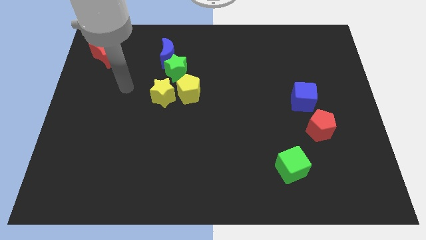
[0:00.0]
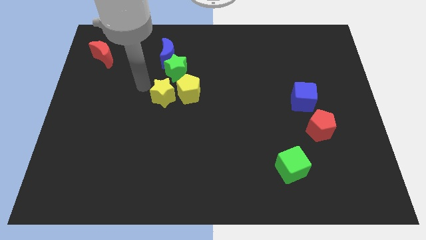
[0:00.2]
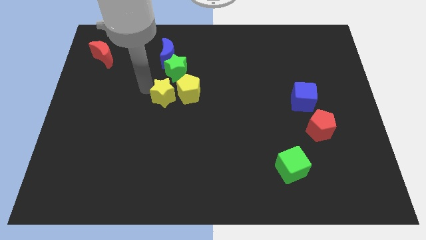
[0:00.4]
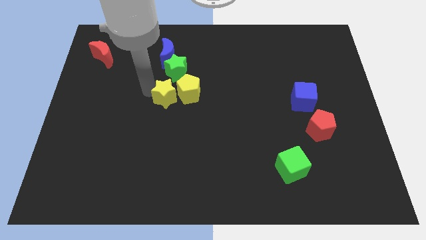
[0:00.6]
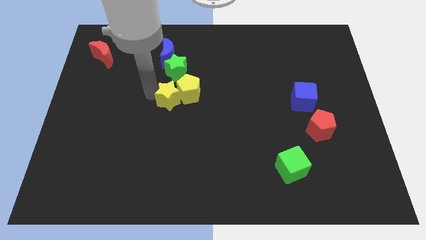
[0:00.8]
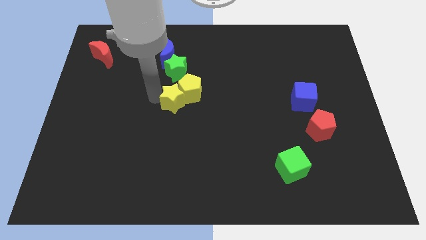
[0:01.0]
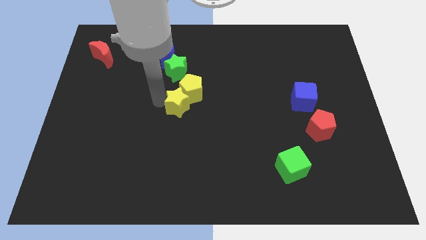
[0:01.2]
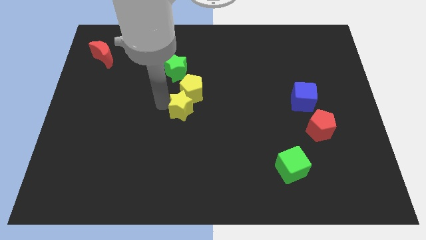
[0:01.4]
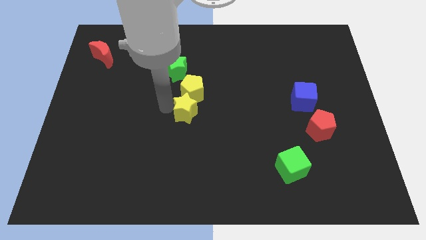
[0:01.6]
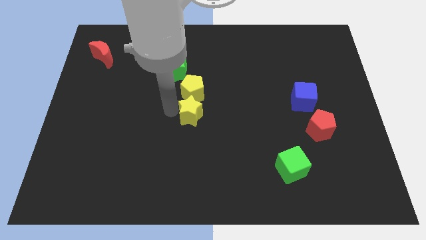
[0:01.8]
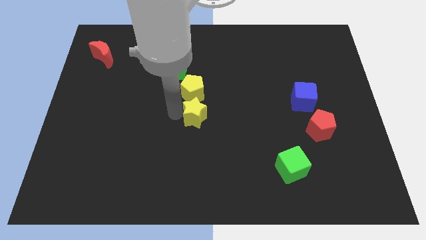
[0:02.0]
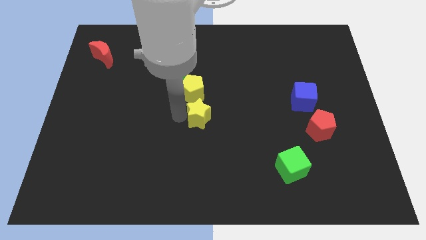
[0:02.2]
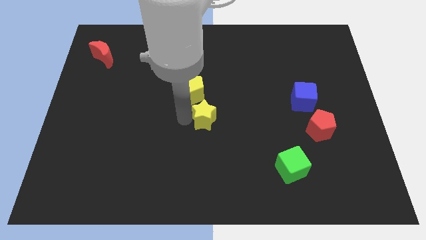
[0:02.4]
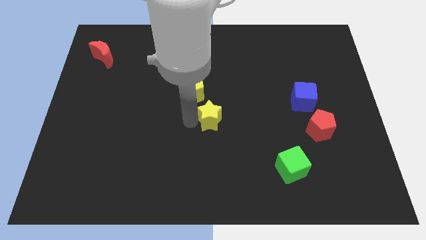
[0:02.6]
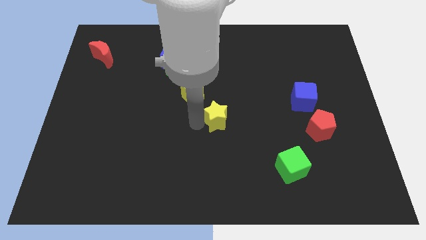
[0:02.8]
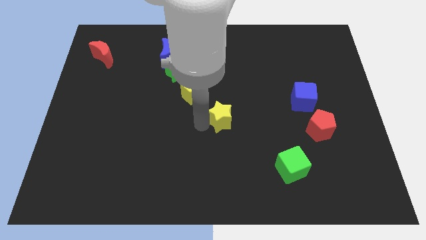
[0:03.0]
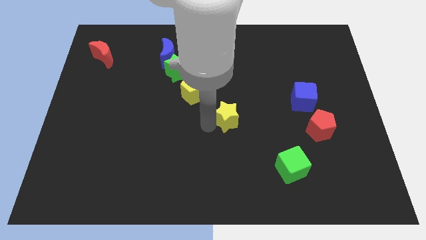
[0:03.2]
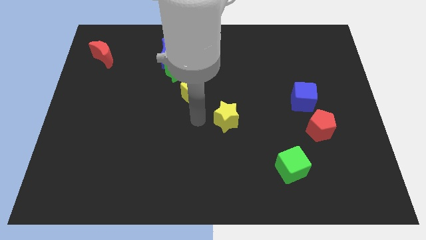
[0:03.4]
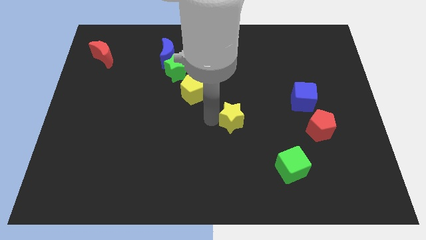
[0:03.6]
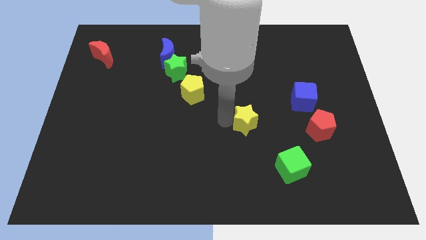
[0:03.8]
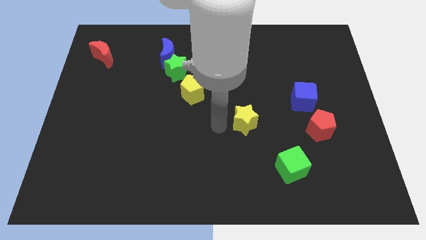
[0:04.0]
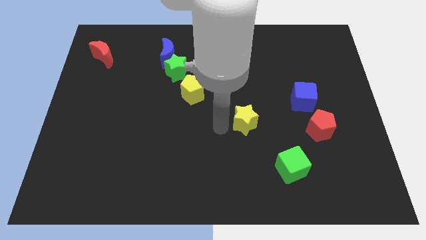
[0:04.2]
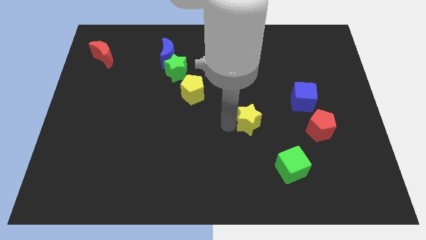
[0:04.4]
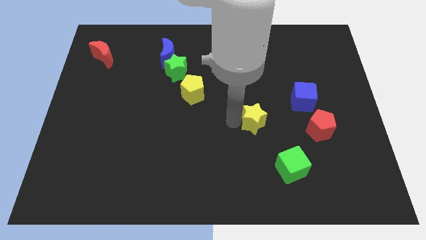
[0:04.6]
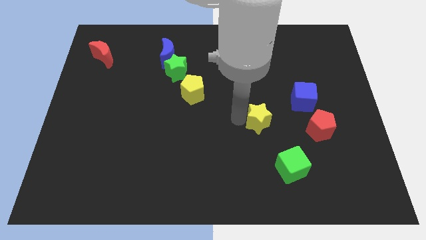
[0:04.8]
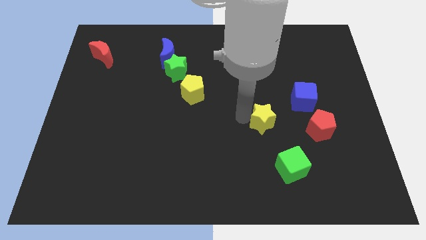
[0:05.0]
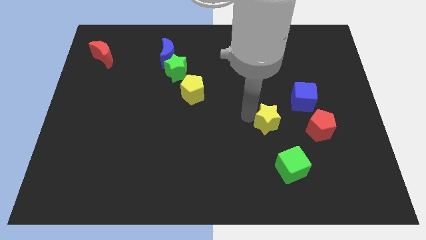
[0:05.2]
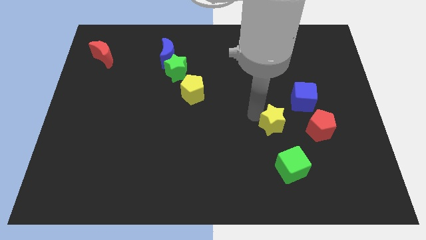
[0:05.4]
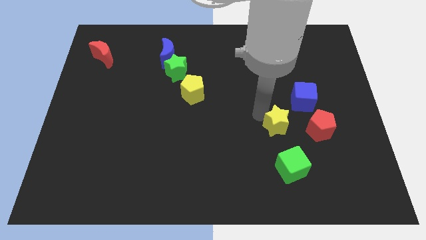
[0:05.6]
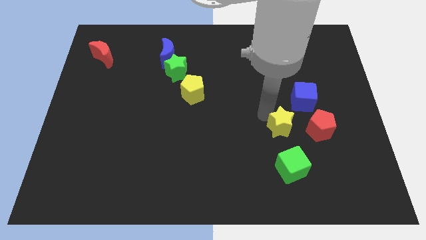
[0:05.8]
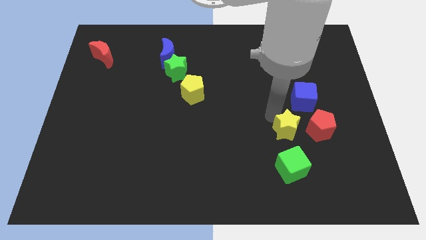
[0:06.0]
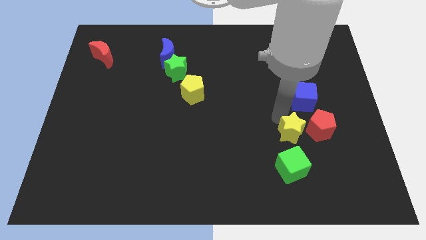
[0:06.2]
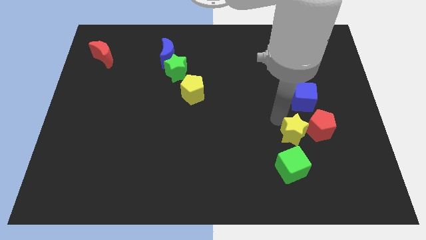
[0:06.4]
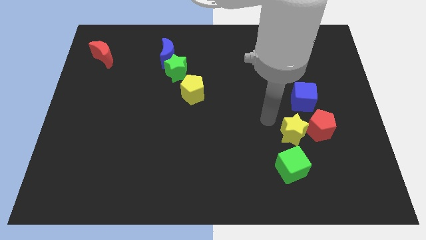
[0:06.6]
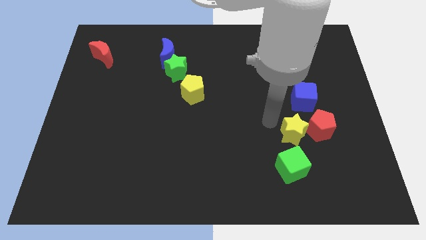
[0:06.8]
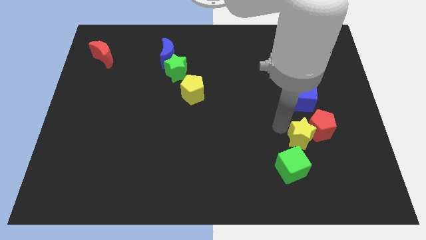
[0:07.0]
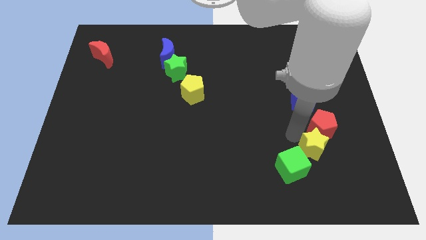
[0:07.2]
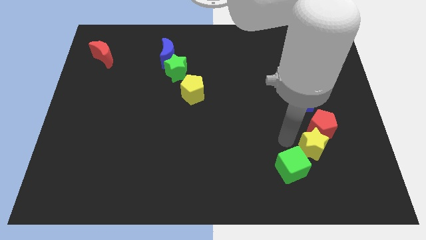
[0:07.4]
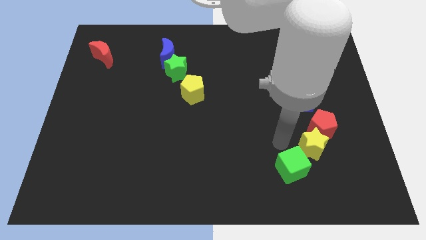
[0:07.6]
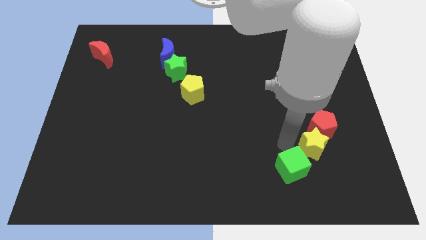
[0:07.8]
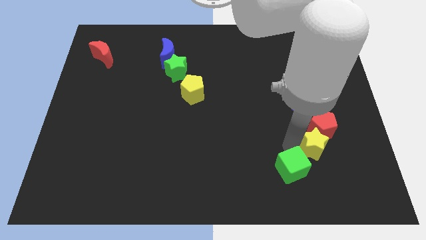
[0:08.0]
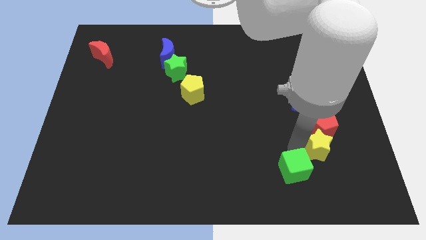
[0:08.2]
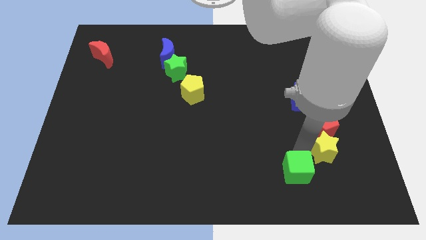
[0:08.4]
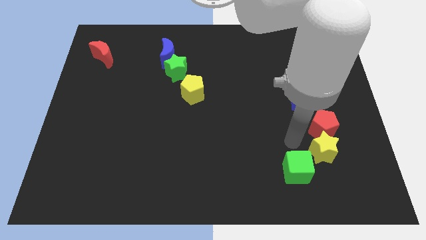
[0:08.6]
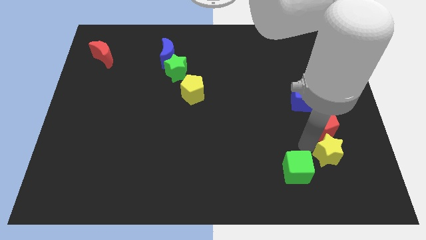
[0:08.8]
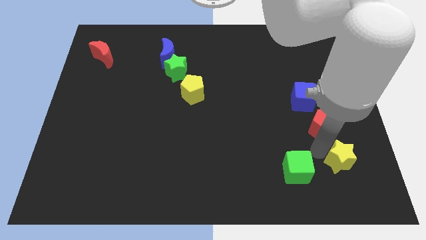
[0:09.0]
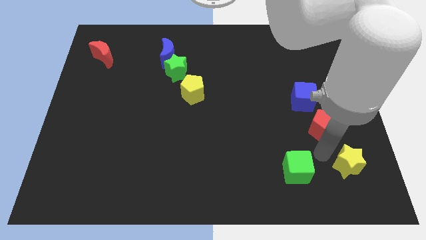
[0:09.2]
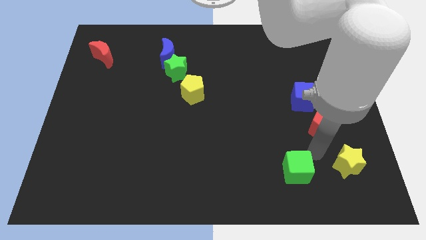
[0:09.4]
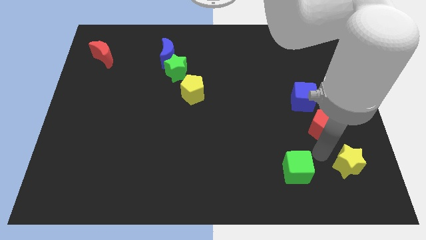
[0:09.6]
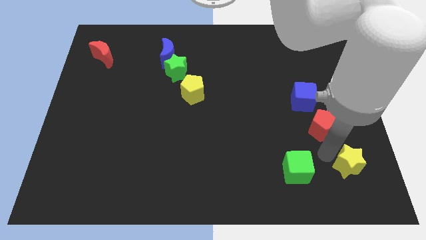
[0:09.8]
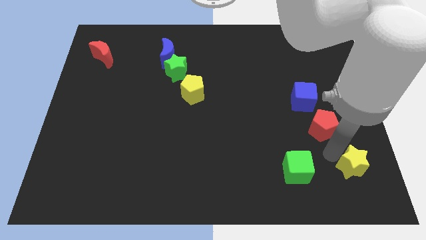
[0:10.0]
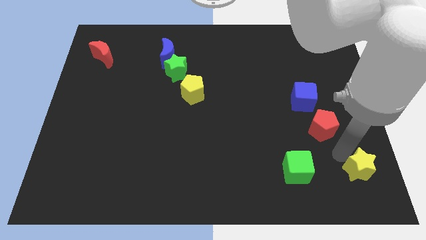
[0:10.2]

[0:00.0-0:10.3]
put the yellow star to the bottom right of the board
